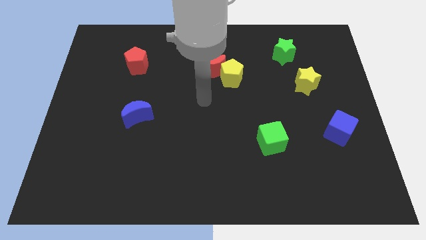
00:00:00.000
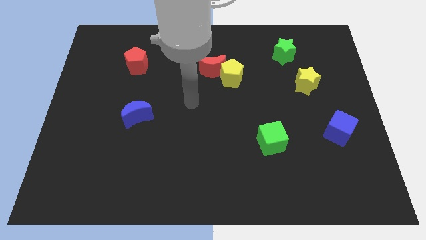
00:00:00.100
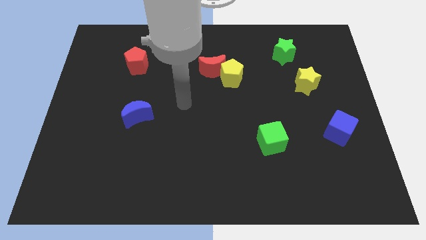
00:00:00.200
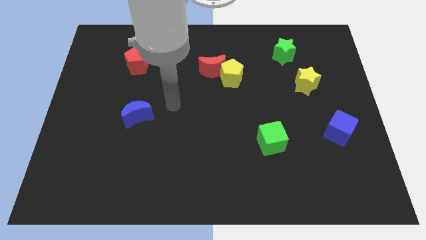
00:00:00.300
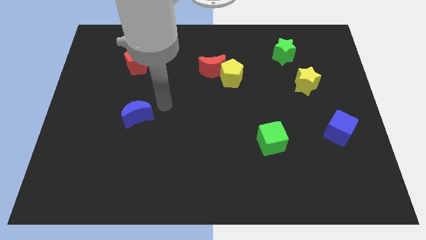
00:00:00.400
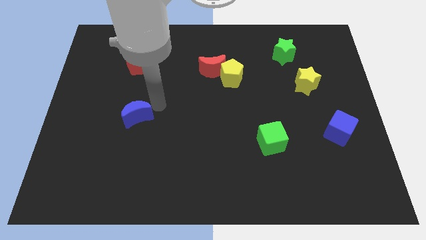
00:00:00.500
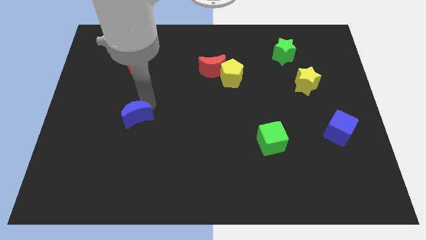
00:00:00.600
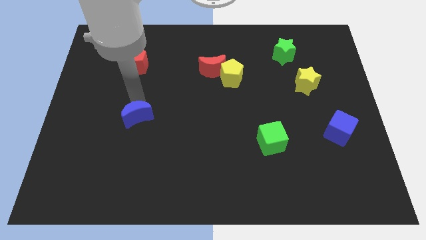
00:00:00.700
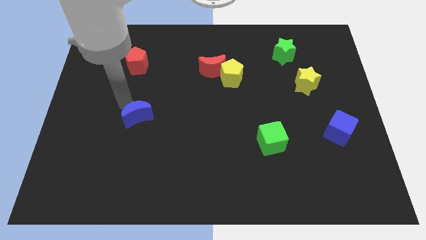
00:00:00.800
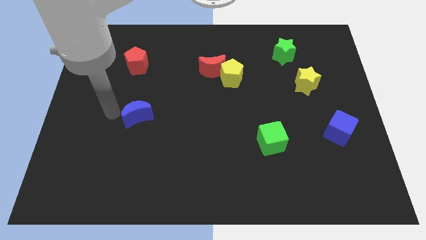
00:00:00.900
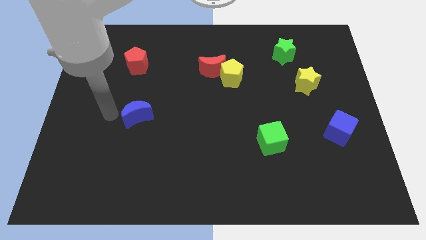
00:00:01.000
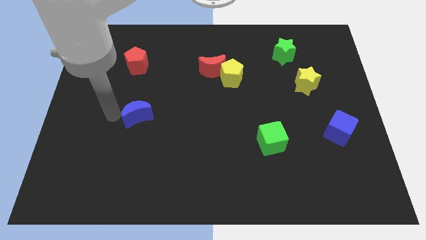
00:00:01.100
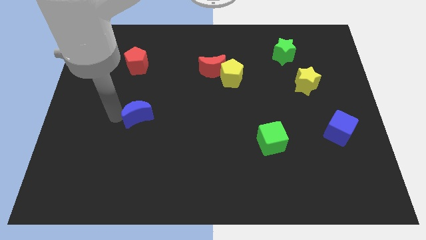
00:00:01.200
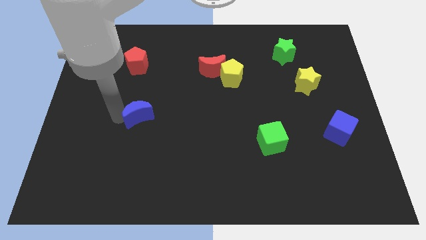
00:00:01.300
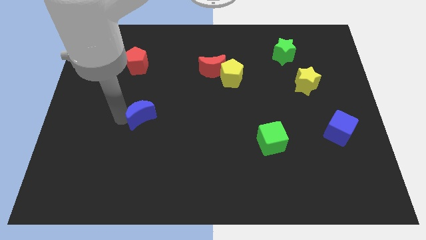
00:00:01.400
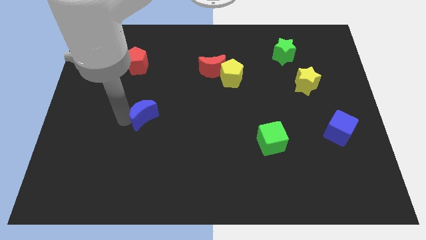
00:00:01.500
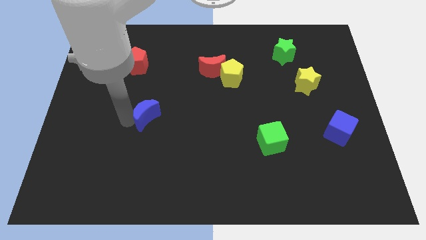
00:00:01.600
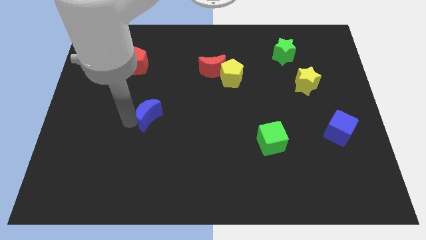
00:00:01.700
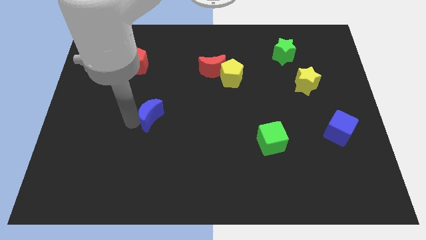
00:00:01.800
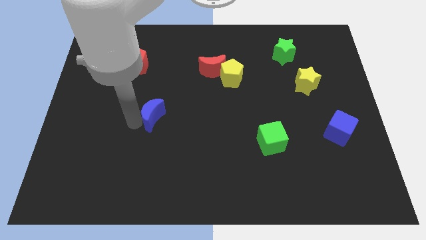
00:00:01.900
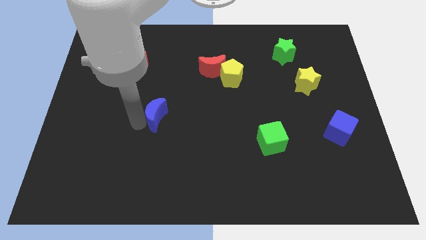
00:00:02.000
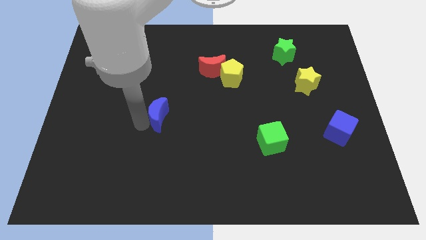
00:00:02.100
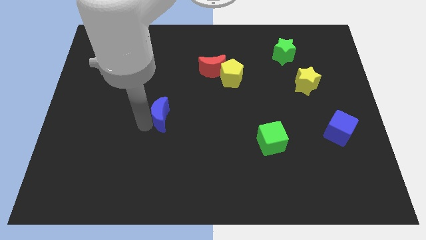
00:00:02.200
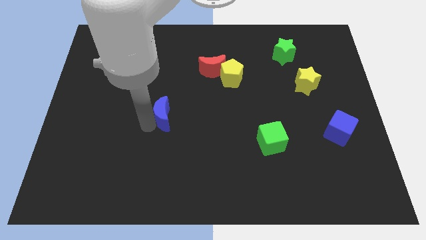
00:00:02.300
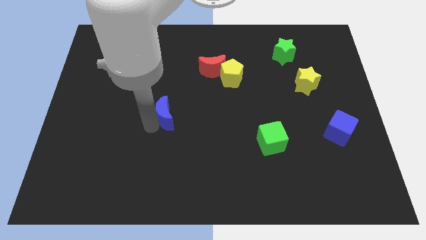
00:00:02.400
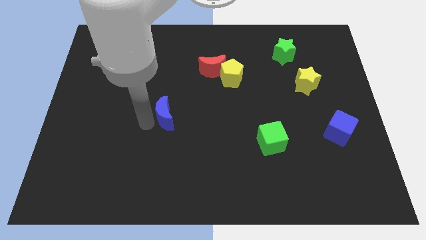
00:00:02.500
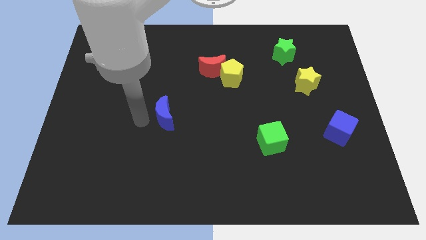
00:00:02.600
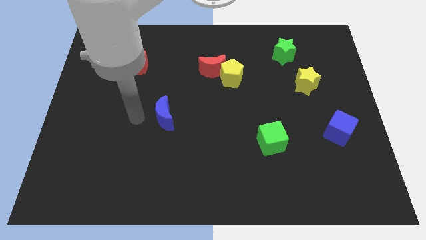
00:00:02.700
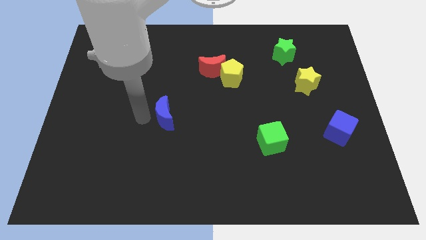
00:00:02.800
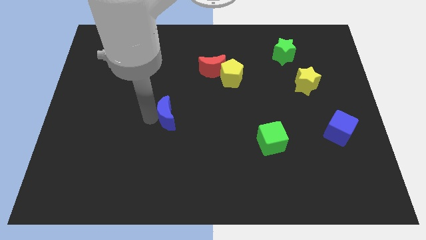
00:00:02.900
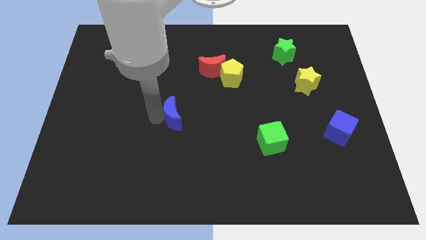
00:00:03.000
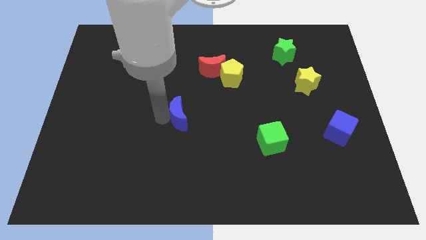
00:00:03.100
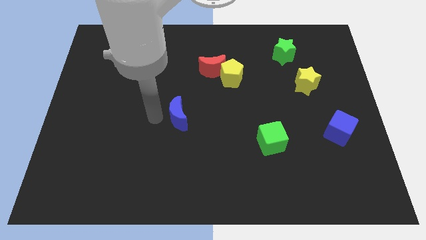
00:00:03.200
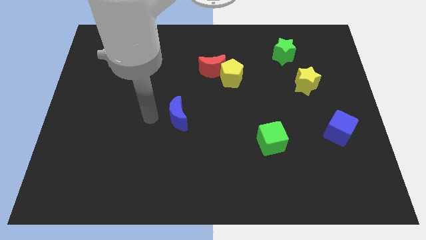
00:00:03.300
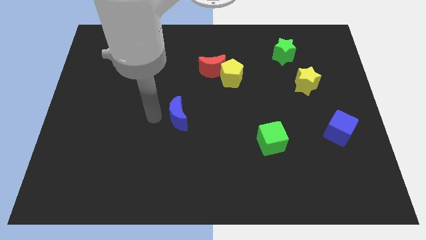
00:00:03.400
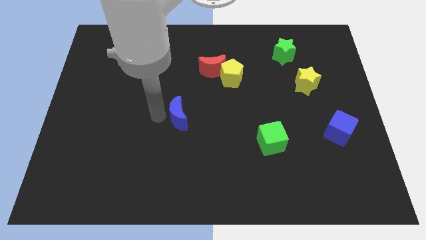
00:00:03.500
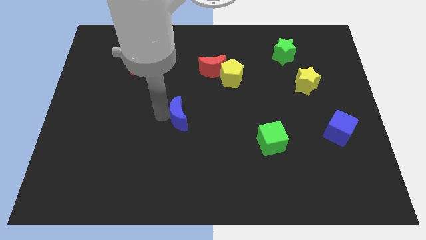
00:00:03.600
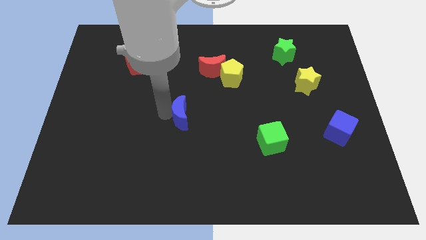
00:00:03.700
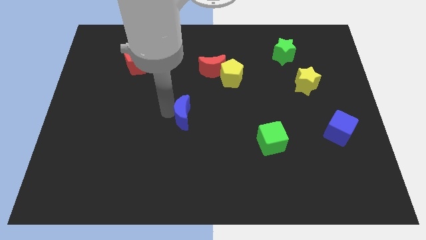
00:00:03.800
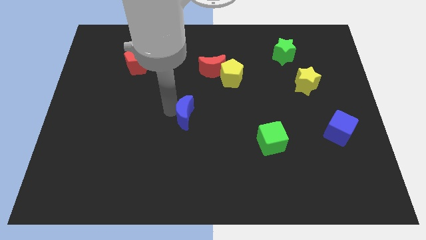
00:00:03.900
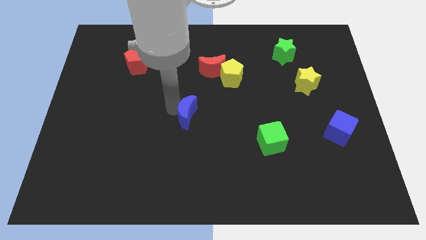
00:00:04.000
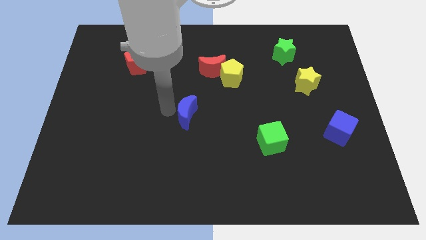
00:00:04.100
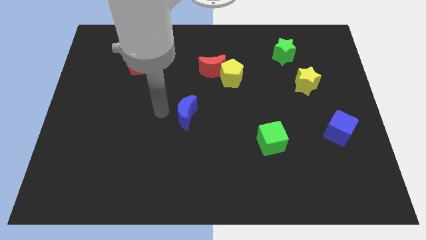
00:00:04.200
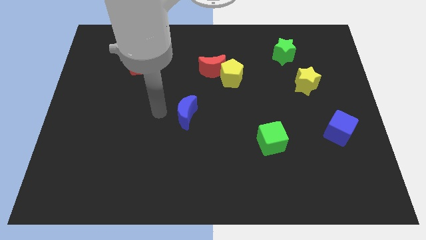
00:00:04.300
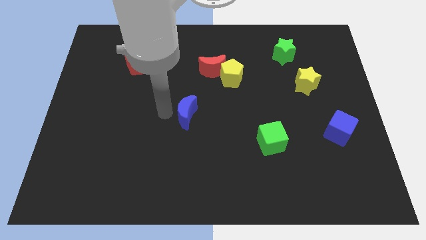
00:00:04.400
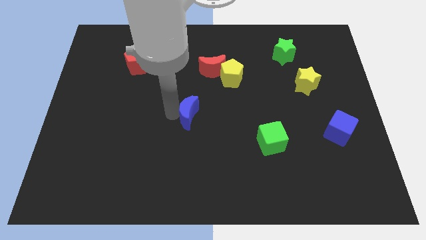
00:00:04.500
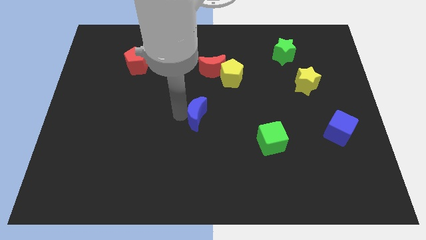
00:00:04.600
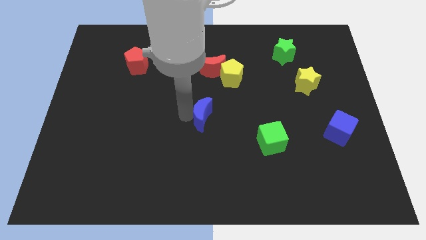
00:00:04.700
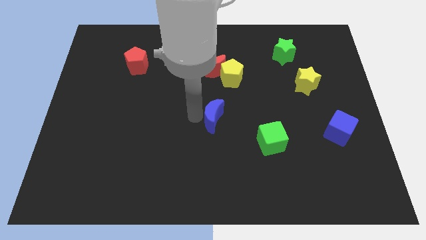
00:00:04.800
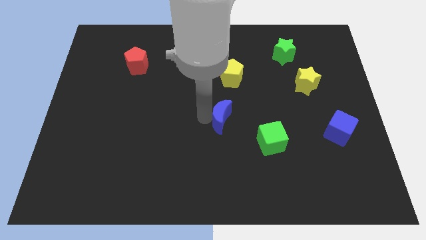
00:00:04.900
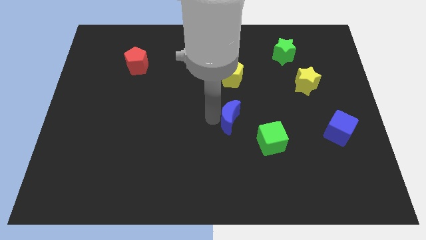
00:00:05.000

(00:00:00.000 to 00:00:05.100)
move the blue moon to the top left of the green cube

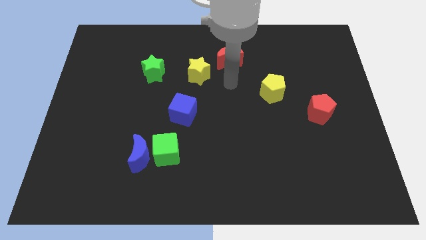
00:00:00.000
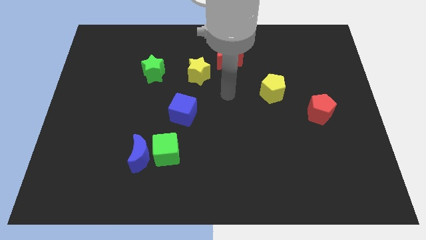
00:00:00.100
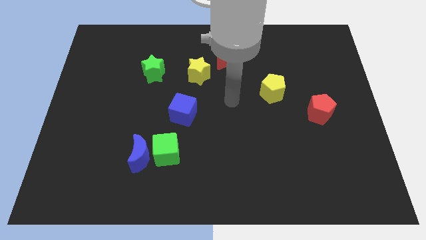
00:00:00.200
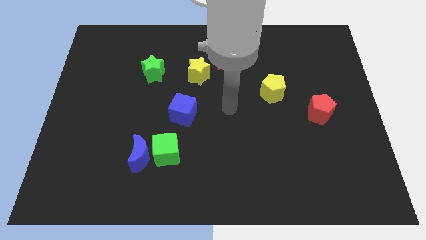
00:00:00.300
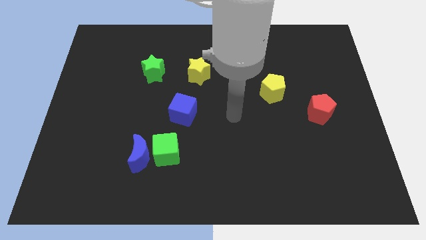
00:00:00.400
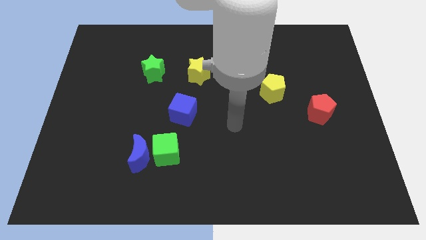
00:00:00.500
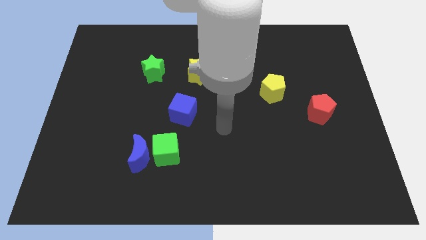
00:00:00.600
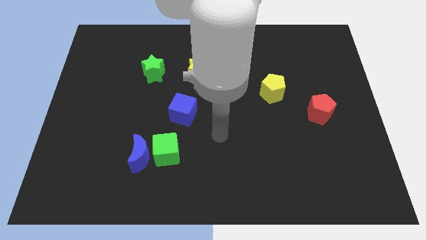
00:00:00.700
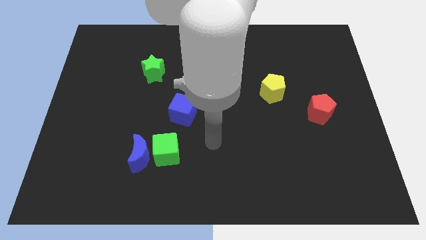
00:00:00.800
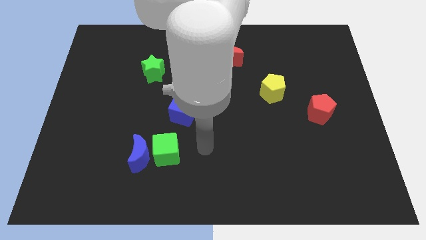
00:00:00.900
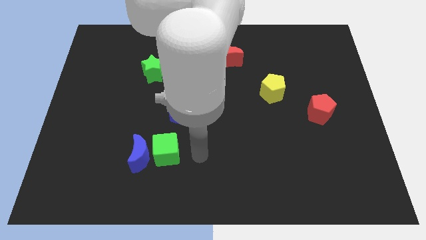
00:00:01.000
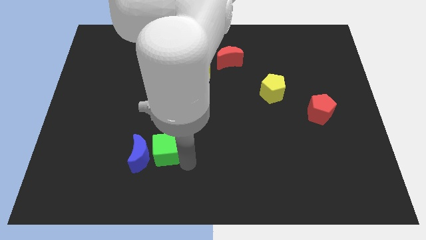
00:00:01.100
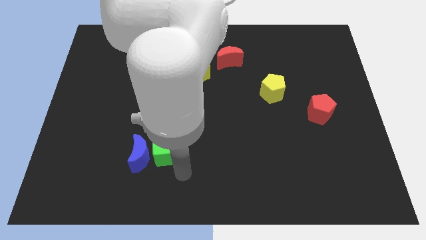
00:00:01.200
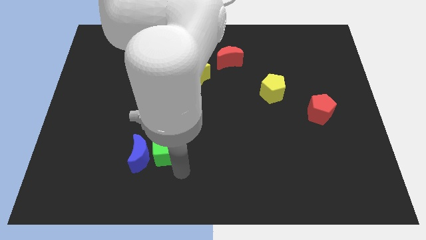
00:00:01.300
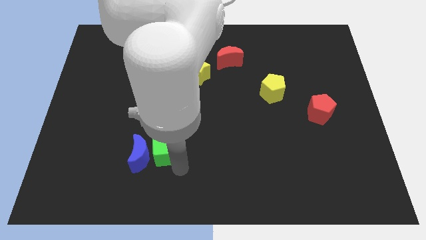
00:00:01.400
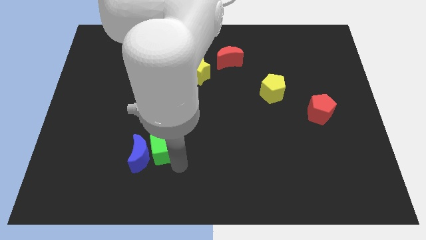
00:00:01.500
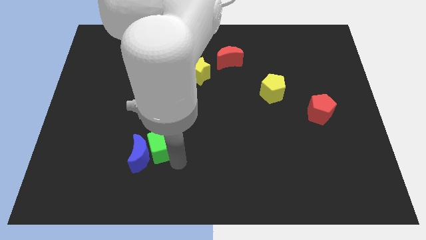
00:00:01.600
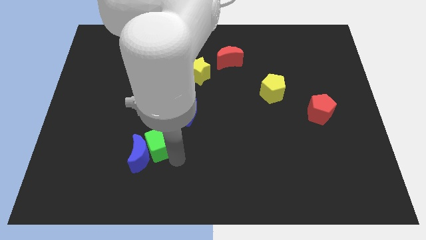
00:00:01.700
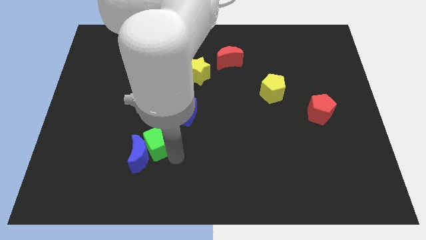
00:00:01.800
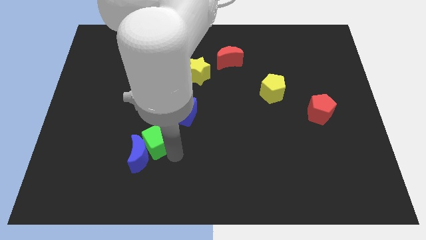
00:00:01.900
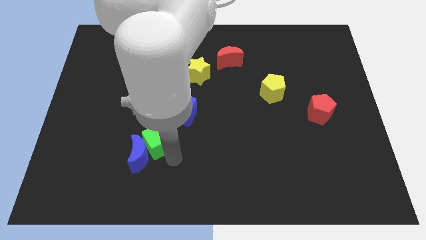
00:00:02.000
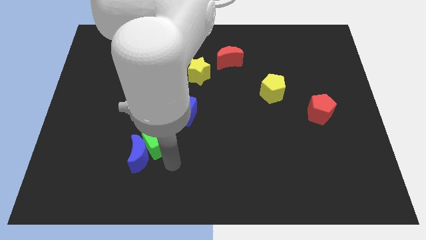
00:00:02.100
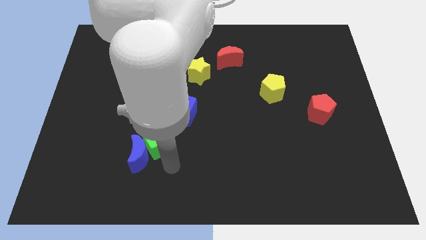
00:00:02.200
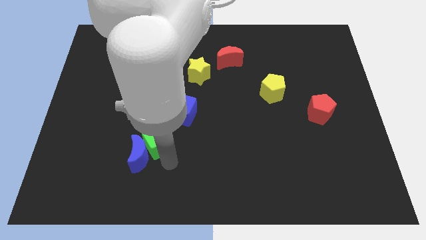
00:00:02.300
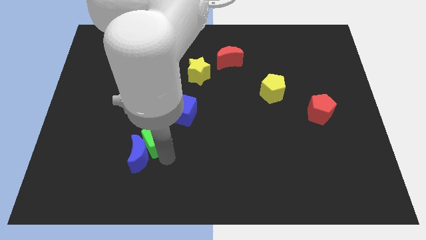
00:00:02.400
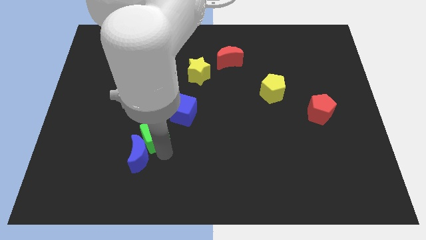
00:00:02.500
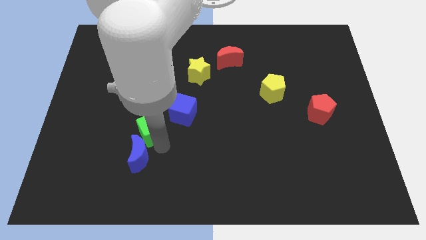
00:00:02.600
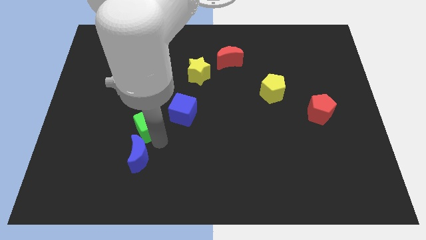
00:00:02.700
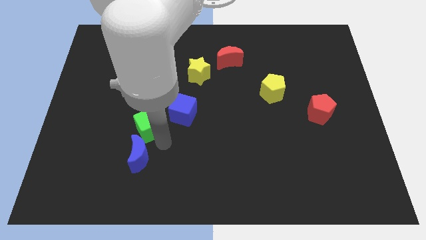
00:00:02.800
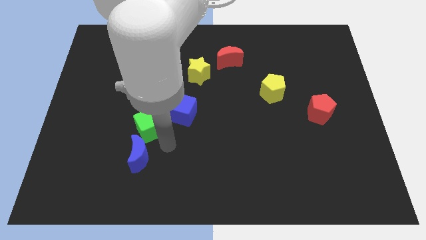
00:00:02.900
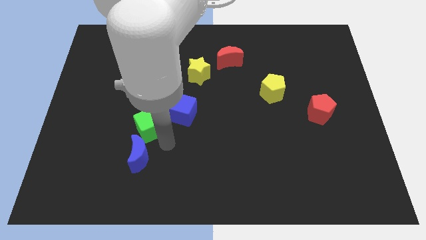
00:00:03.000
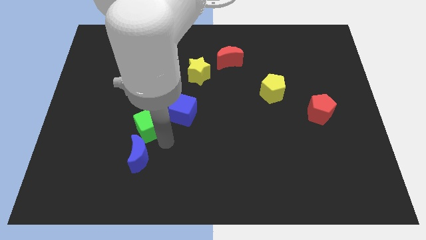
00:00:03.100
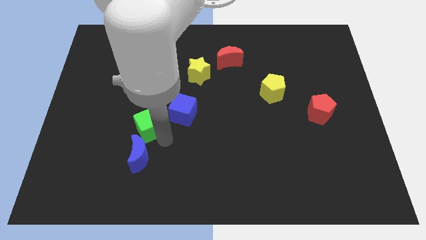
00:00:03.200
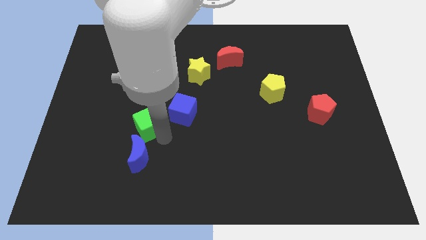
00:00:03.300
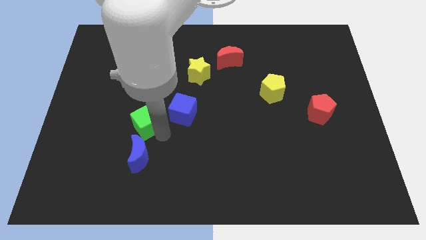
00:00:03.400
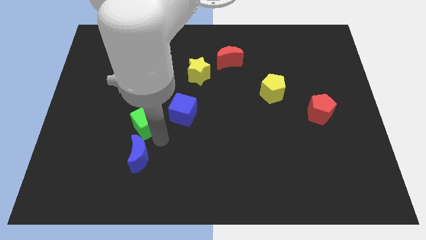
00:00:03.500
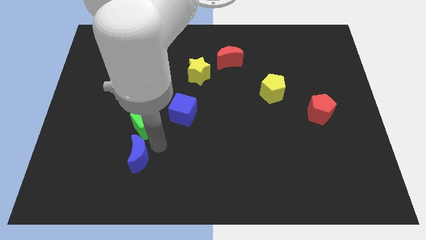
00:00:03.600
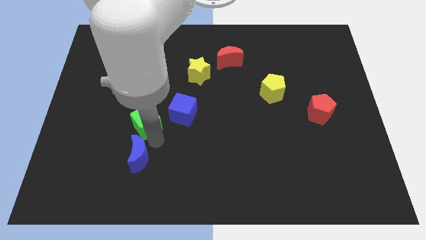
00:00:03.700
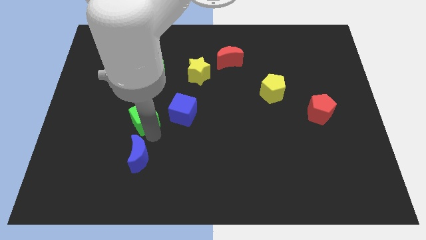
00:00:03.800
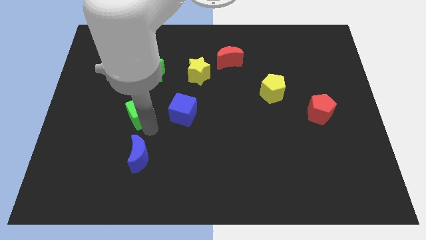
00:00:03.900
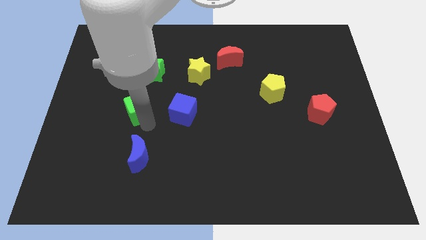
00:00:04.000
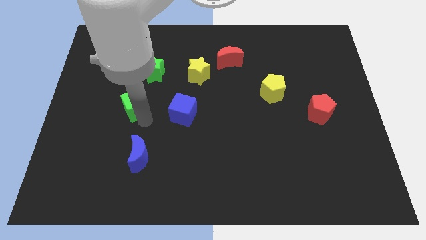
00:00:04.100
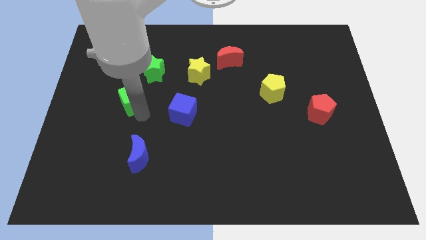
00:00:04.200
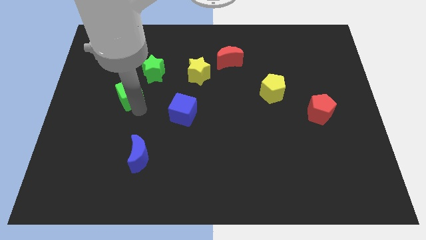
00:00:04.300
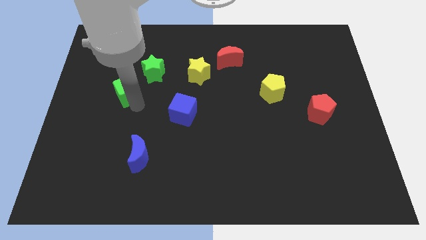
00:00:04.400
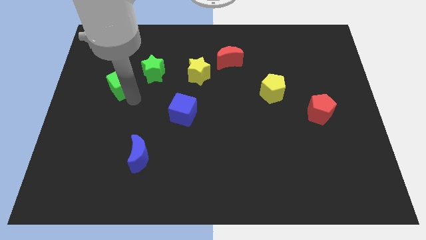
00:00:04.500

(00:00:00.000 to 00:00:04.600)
put the green cube left of the green star
